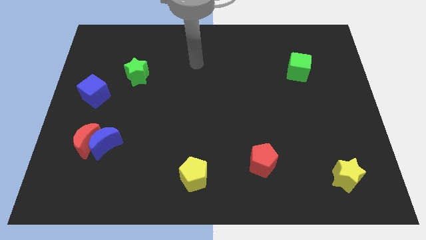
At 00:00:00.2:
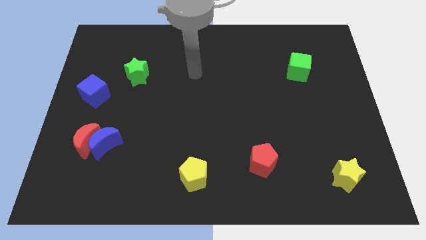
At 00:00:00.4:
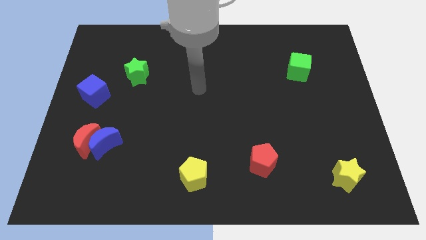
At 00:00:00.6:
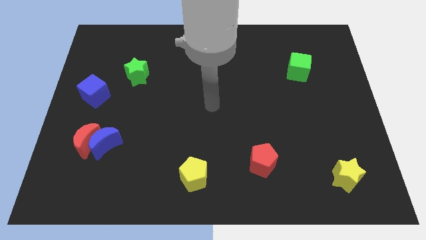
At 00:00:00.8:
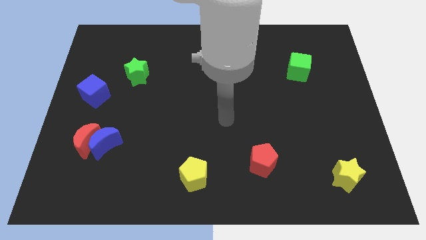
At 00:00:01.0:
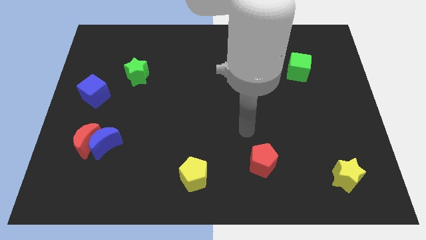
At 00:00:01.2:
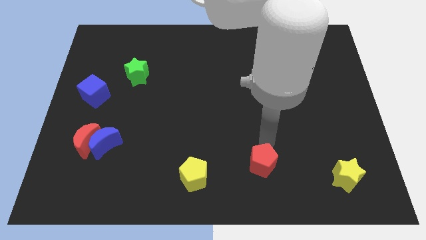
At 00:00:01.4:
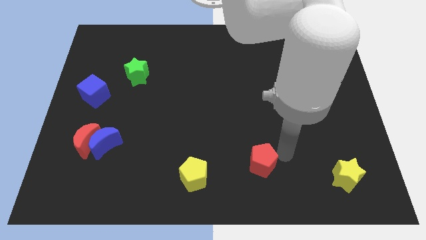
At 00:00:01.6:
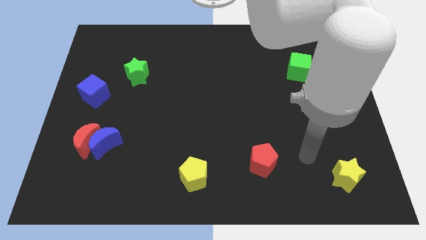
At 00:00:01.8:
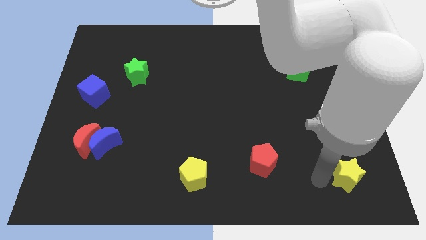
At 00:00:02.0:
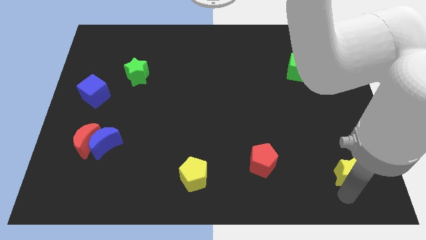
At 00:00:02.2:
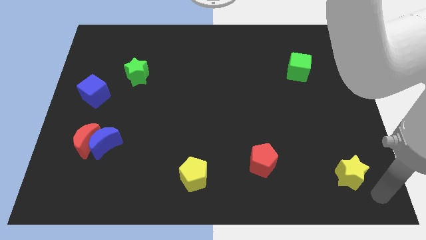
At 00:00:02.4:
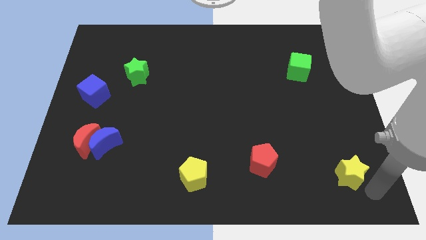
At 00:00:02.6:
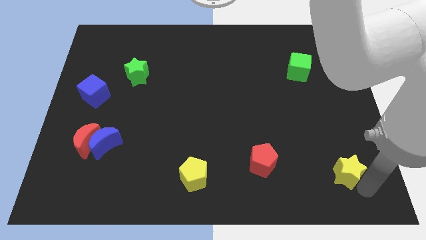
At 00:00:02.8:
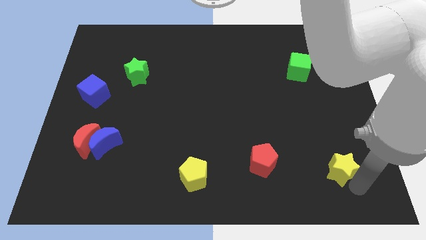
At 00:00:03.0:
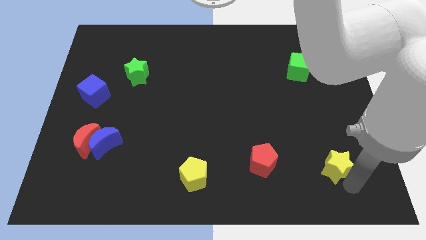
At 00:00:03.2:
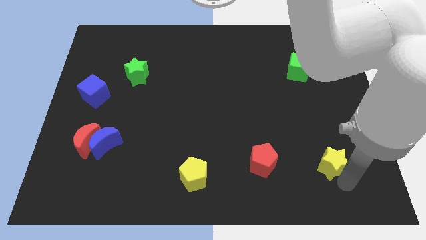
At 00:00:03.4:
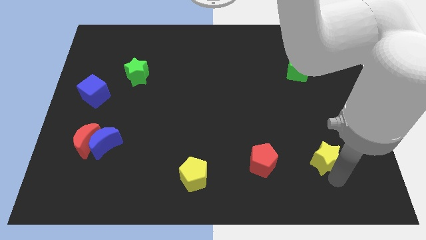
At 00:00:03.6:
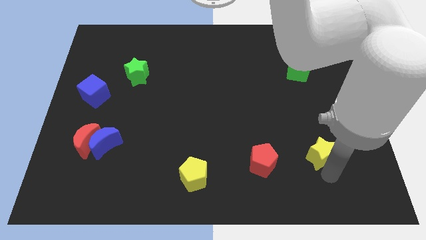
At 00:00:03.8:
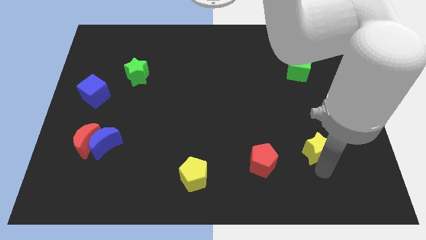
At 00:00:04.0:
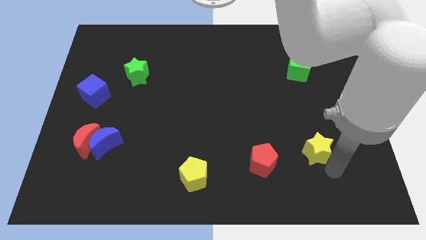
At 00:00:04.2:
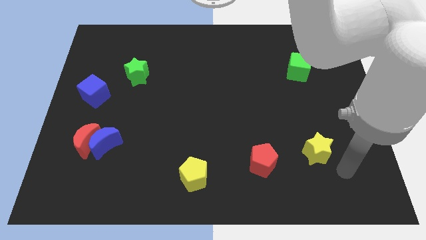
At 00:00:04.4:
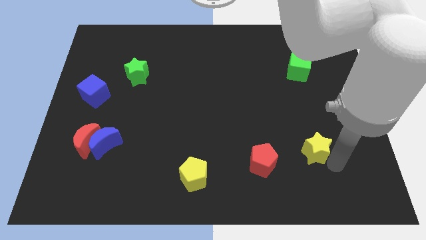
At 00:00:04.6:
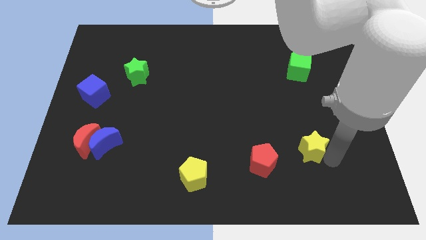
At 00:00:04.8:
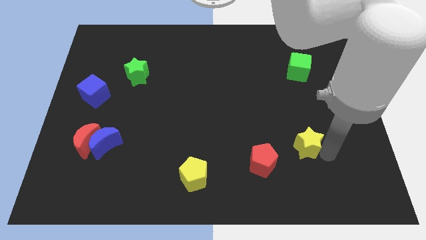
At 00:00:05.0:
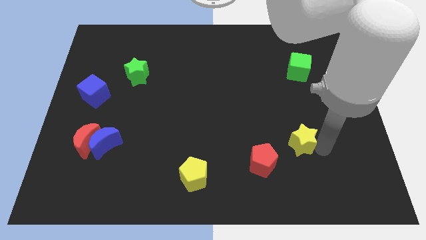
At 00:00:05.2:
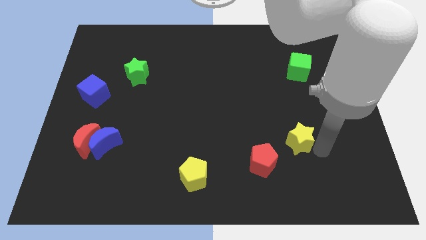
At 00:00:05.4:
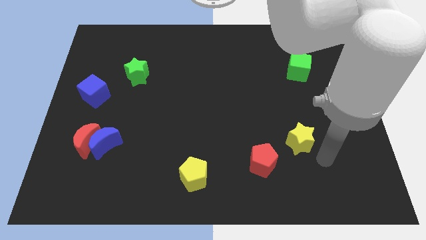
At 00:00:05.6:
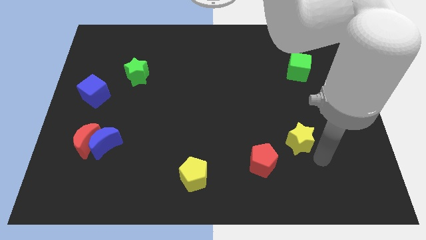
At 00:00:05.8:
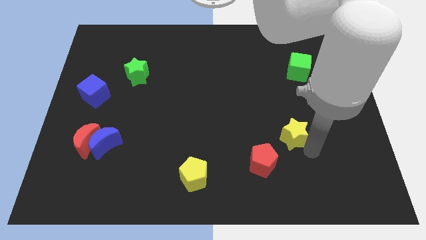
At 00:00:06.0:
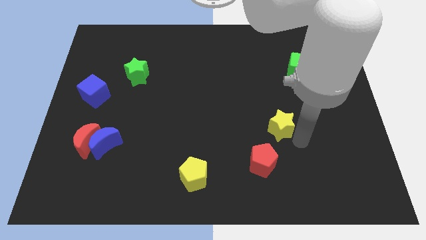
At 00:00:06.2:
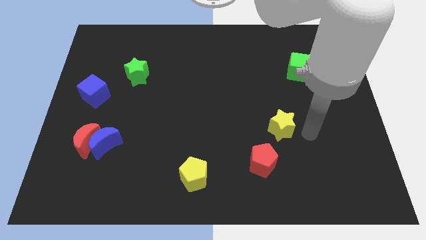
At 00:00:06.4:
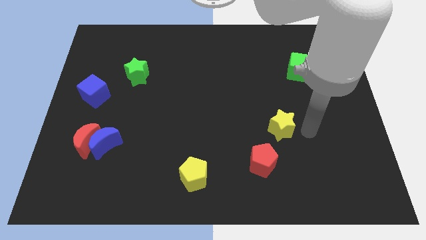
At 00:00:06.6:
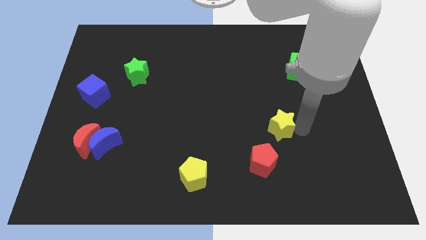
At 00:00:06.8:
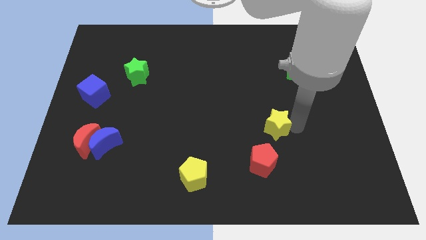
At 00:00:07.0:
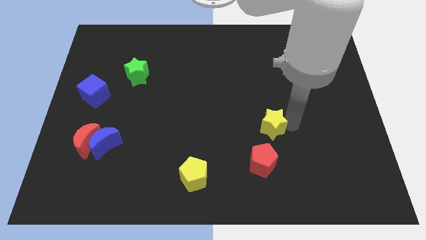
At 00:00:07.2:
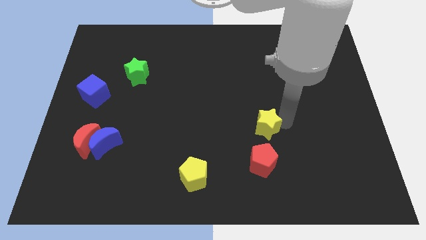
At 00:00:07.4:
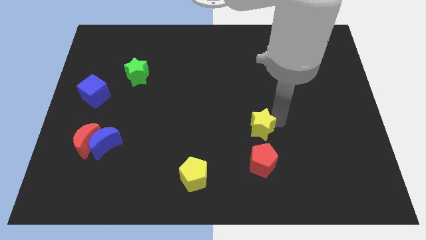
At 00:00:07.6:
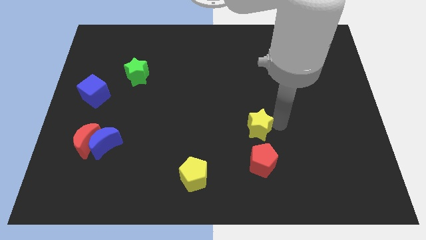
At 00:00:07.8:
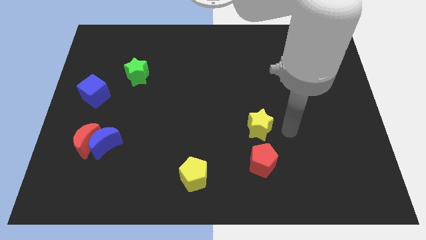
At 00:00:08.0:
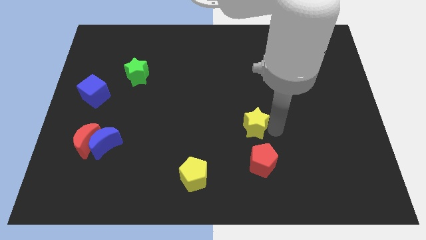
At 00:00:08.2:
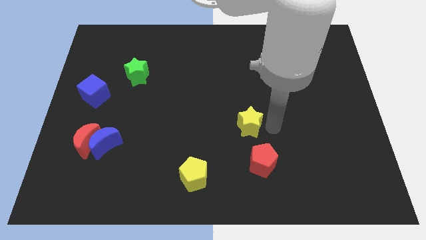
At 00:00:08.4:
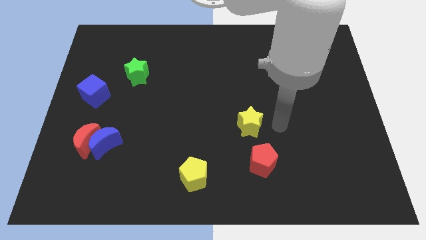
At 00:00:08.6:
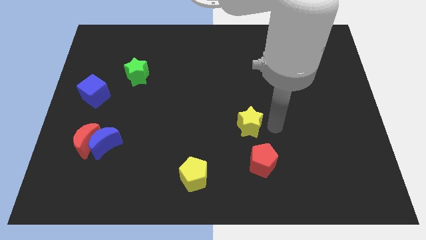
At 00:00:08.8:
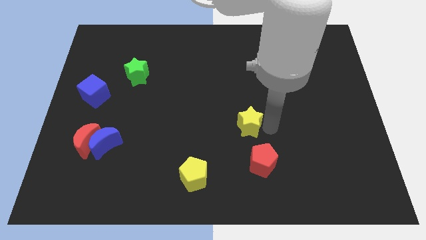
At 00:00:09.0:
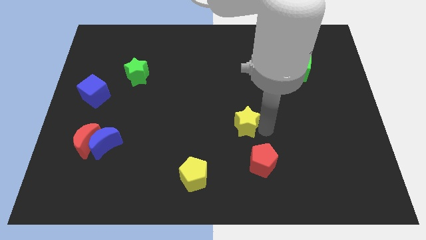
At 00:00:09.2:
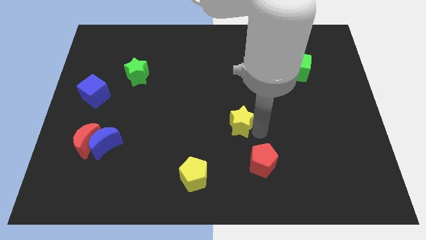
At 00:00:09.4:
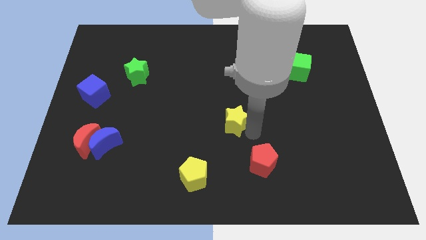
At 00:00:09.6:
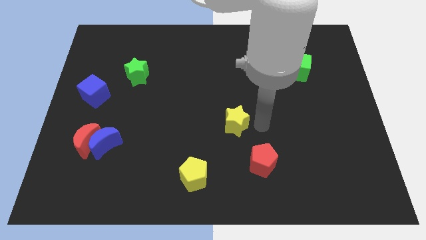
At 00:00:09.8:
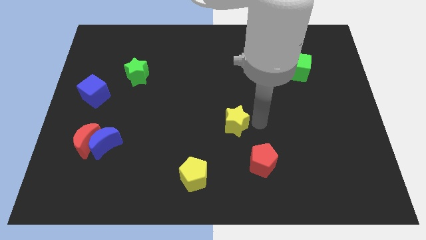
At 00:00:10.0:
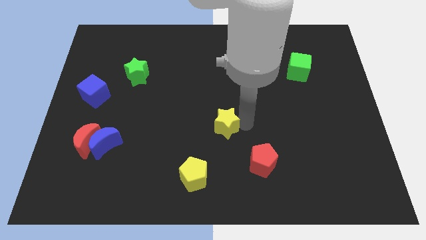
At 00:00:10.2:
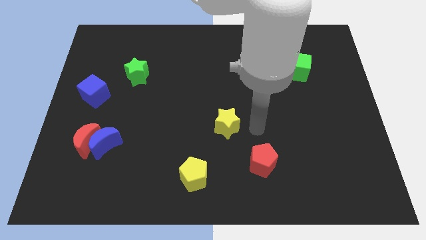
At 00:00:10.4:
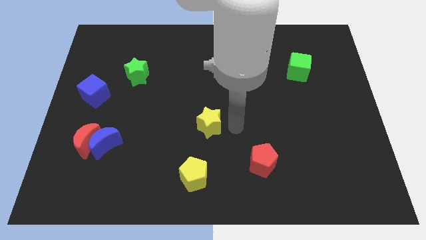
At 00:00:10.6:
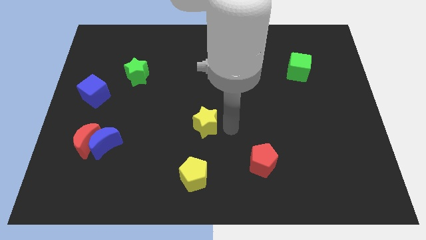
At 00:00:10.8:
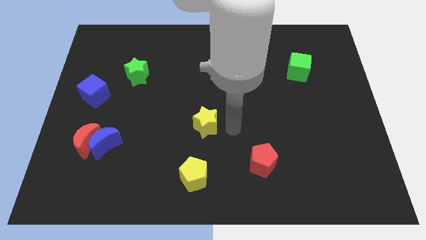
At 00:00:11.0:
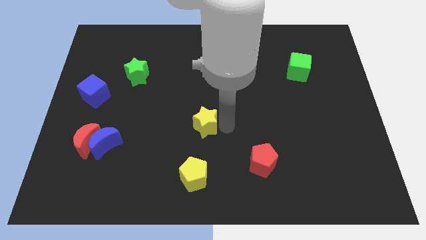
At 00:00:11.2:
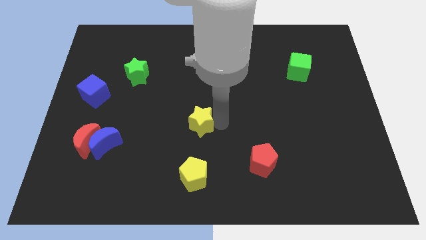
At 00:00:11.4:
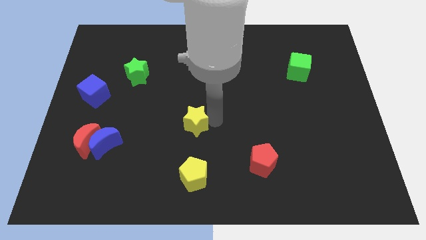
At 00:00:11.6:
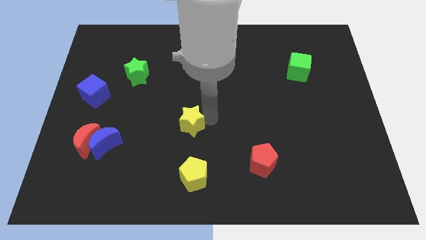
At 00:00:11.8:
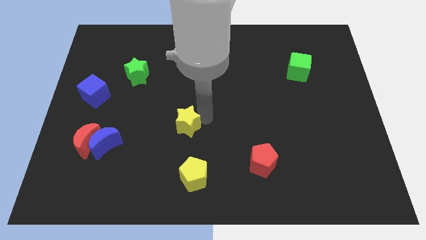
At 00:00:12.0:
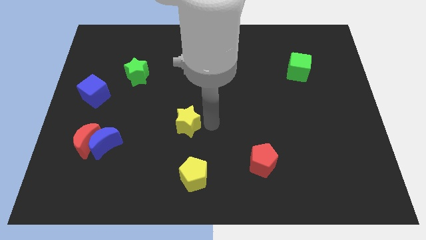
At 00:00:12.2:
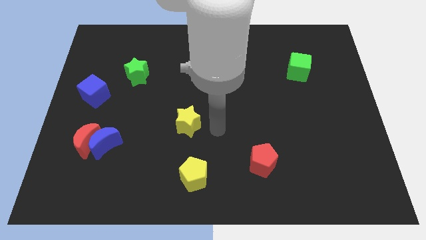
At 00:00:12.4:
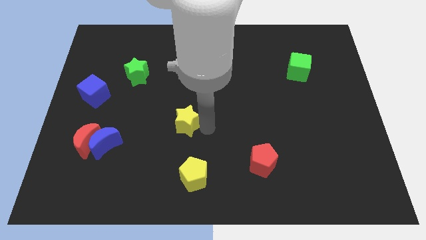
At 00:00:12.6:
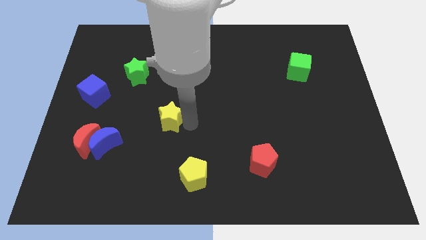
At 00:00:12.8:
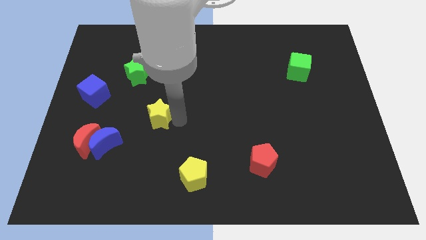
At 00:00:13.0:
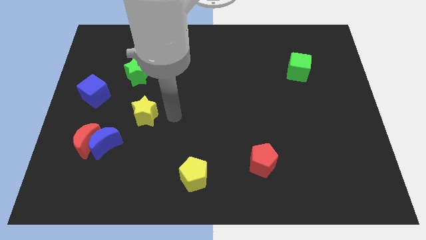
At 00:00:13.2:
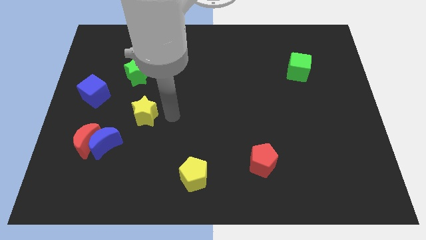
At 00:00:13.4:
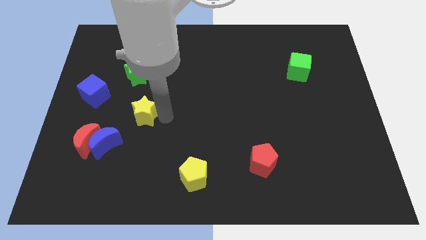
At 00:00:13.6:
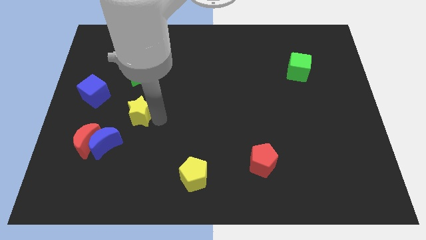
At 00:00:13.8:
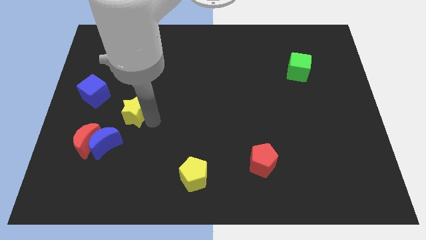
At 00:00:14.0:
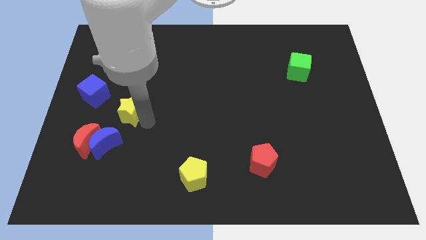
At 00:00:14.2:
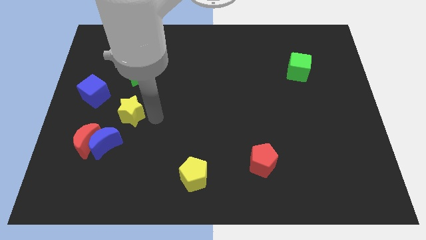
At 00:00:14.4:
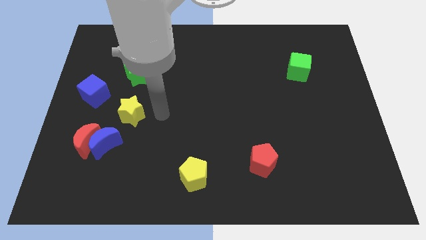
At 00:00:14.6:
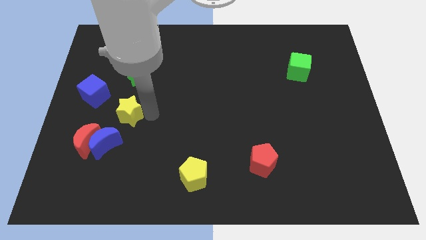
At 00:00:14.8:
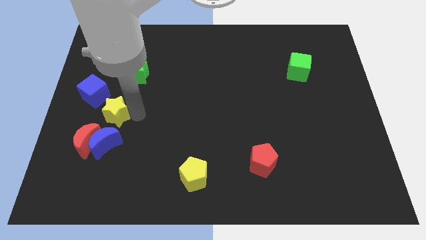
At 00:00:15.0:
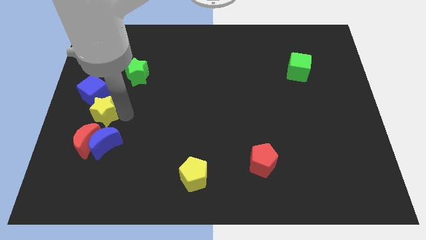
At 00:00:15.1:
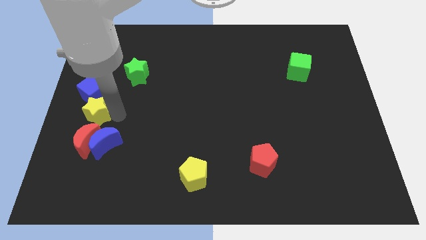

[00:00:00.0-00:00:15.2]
put the yellow star to the left side
